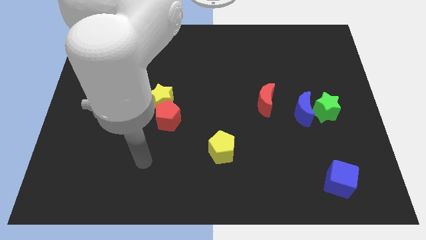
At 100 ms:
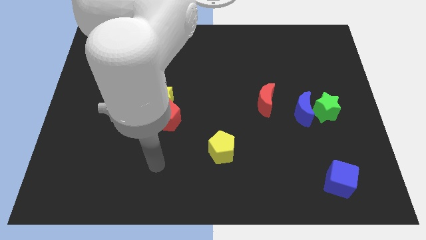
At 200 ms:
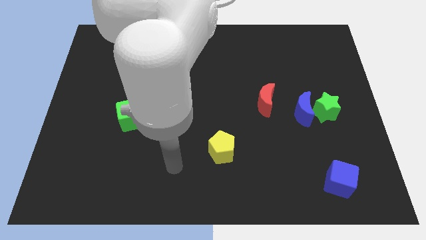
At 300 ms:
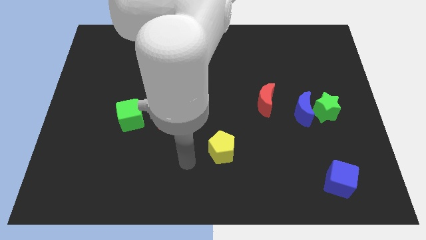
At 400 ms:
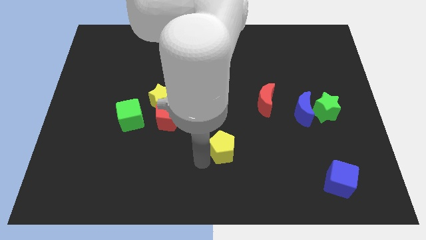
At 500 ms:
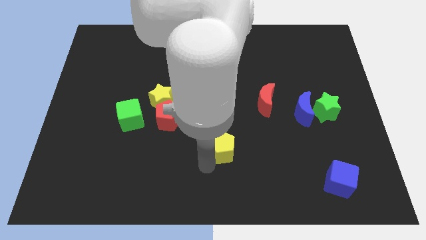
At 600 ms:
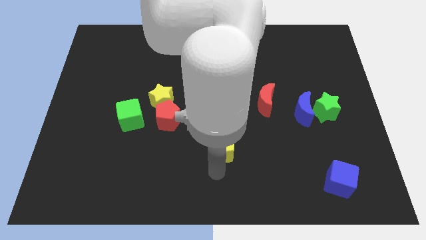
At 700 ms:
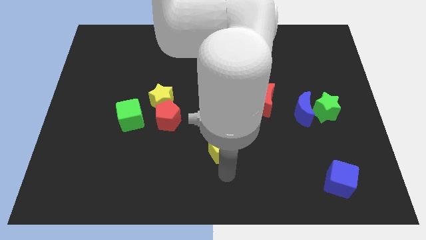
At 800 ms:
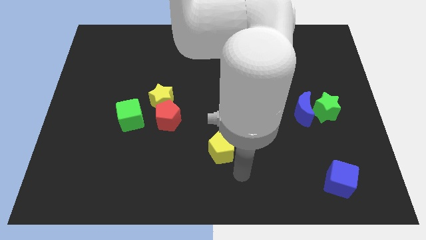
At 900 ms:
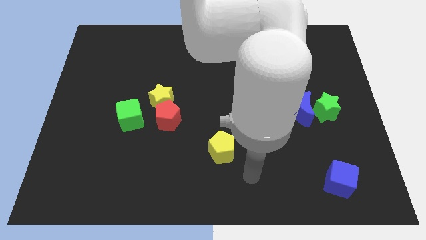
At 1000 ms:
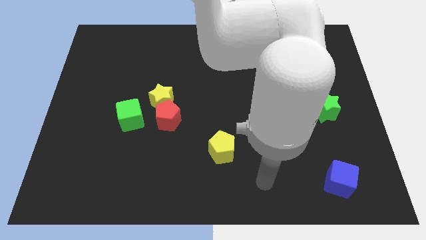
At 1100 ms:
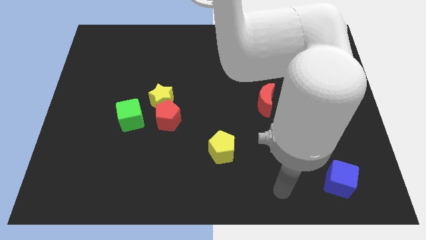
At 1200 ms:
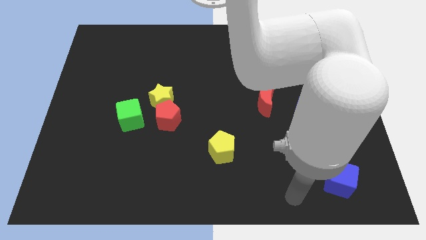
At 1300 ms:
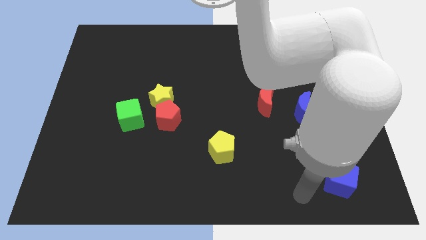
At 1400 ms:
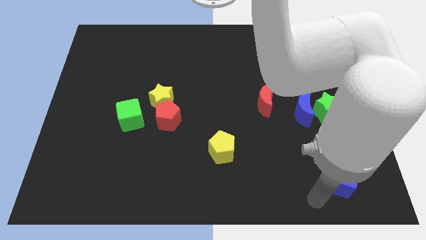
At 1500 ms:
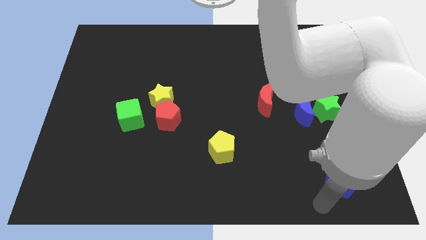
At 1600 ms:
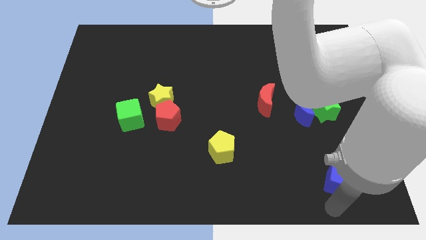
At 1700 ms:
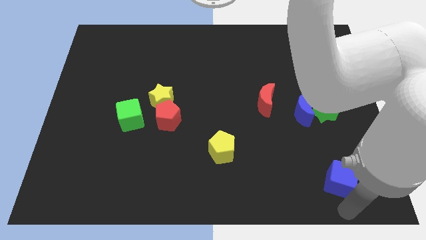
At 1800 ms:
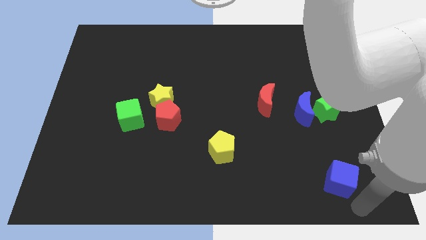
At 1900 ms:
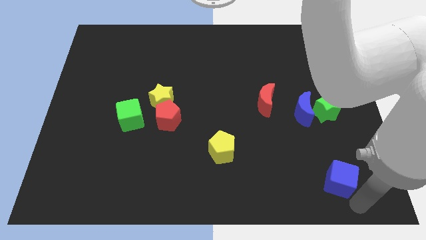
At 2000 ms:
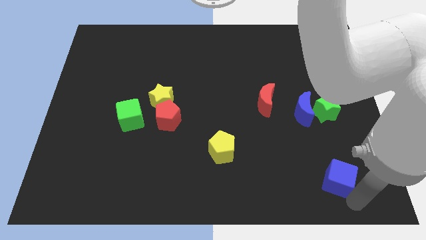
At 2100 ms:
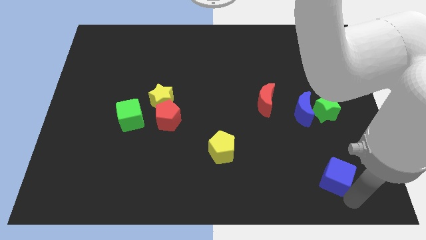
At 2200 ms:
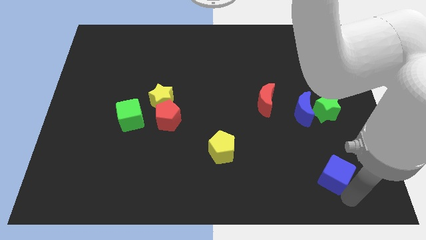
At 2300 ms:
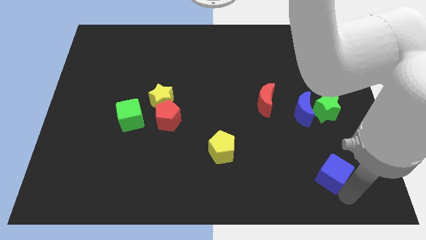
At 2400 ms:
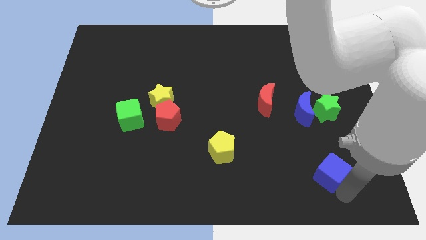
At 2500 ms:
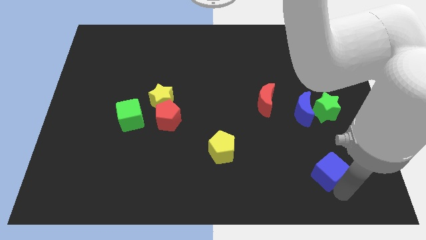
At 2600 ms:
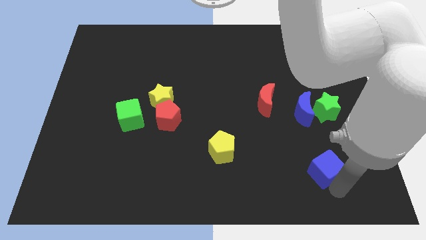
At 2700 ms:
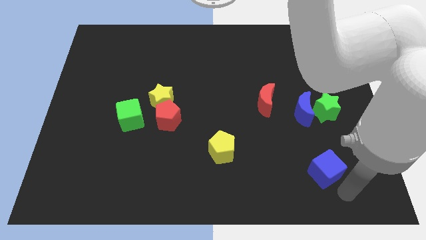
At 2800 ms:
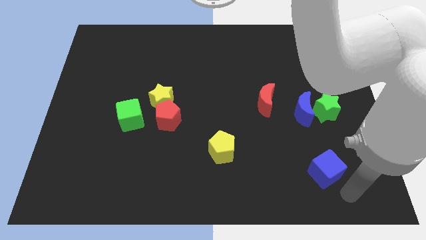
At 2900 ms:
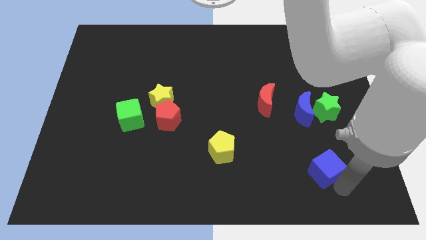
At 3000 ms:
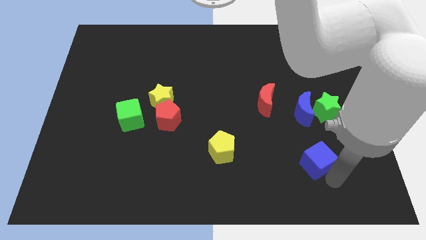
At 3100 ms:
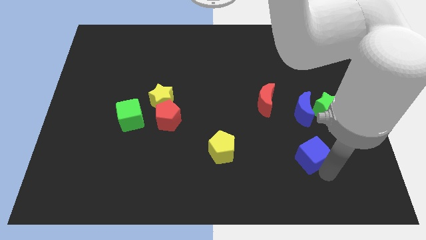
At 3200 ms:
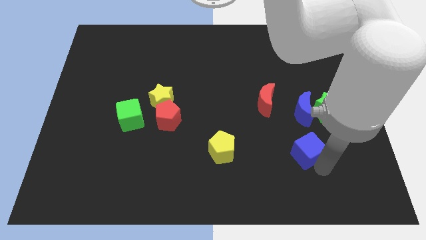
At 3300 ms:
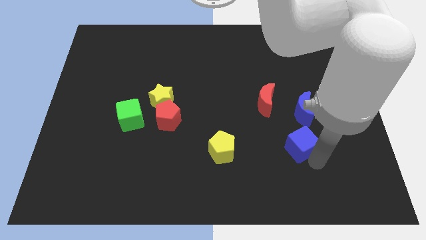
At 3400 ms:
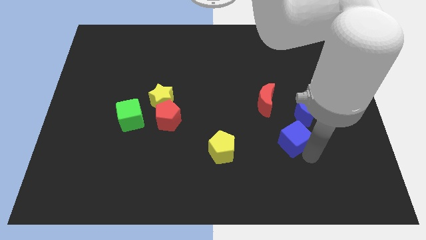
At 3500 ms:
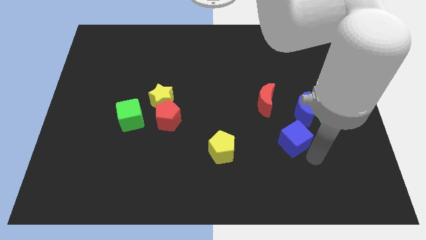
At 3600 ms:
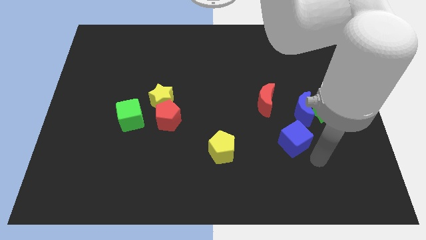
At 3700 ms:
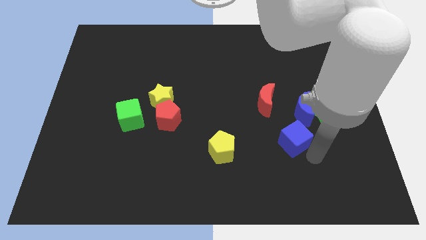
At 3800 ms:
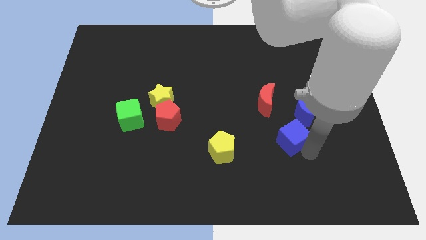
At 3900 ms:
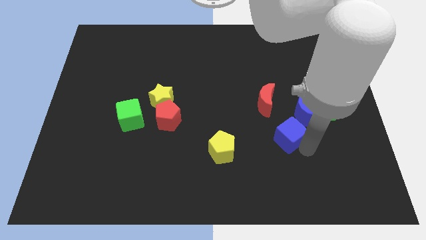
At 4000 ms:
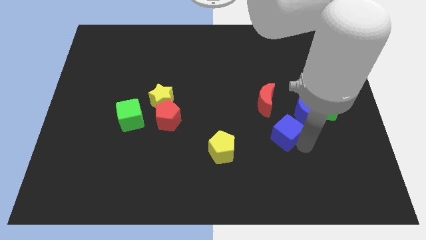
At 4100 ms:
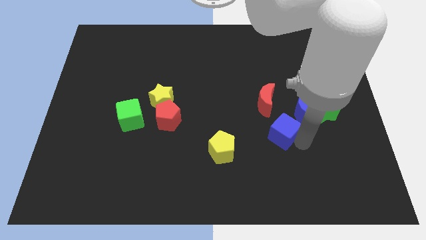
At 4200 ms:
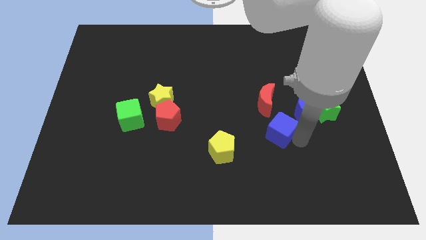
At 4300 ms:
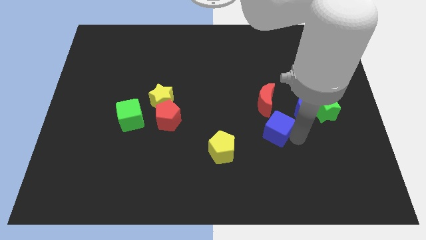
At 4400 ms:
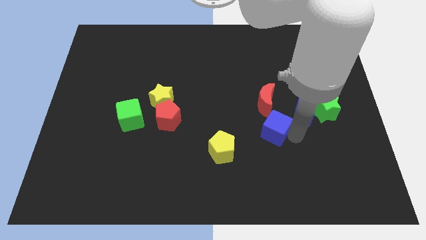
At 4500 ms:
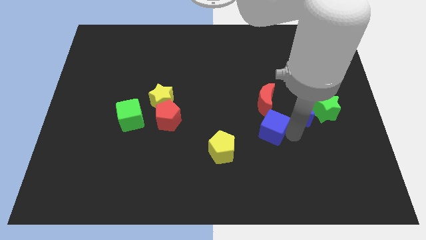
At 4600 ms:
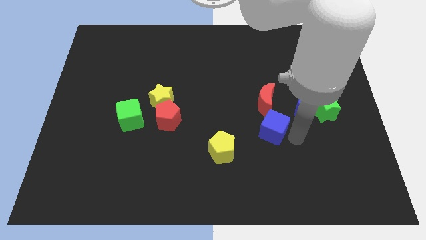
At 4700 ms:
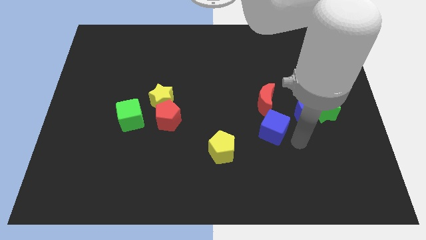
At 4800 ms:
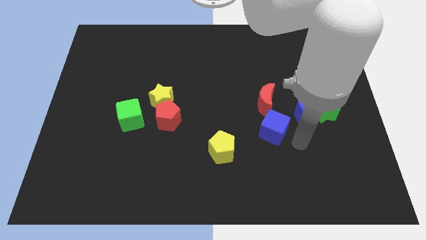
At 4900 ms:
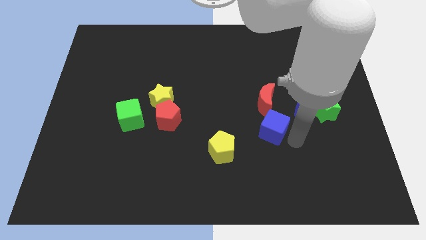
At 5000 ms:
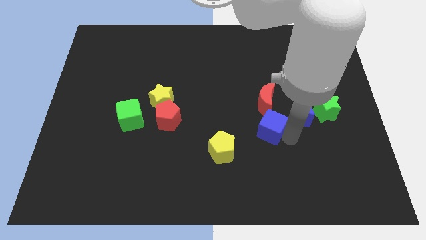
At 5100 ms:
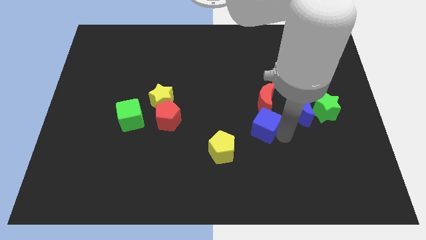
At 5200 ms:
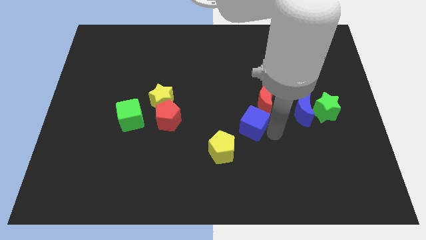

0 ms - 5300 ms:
slide the blue cube up and to the left diagonally

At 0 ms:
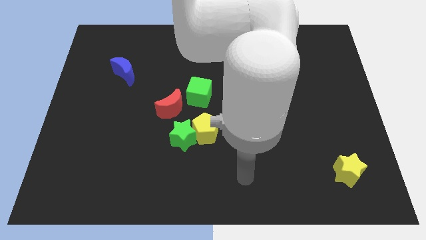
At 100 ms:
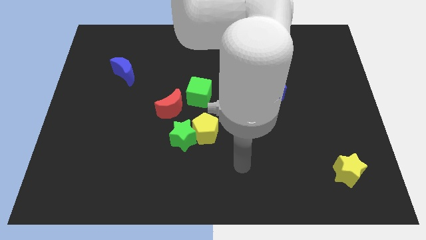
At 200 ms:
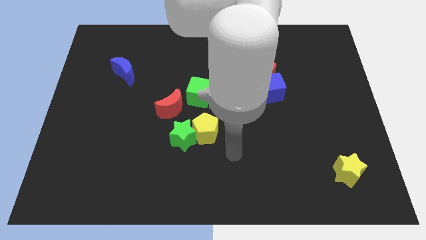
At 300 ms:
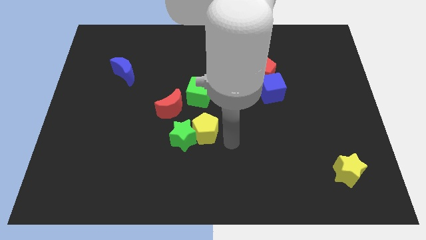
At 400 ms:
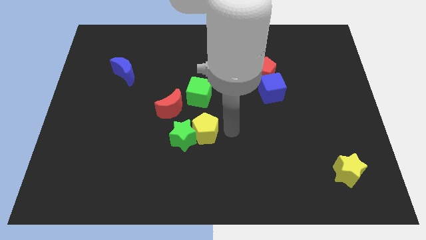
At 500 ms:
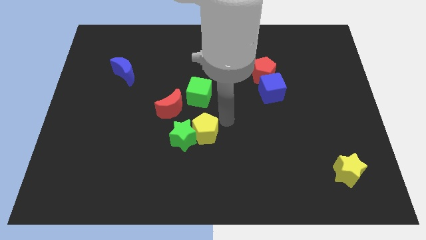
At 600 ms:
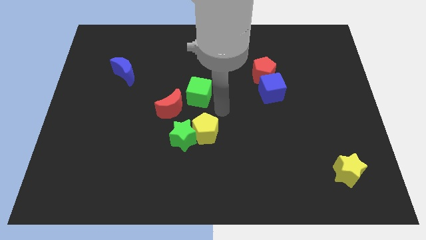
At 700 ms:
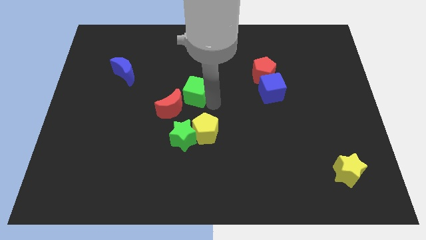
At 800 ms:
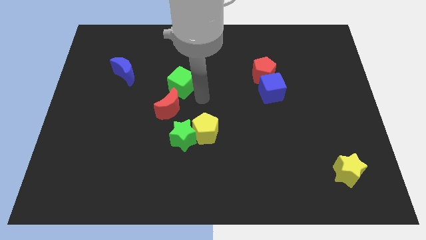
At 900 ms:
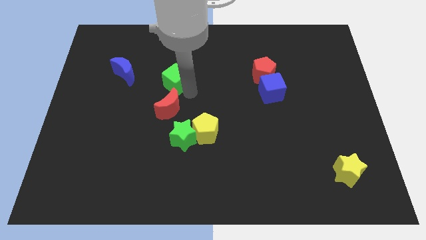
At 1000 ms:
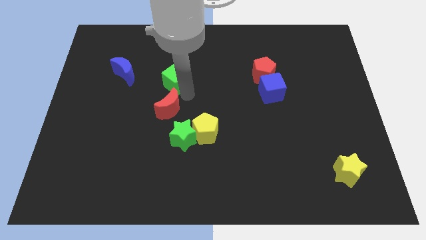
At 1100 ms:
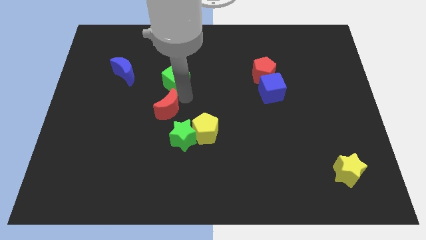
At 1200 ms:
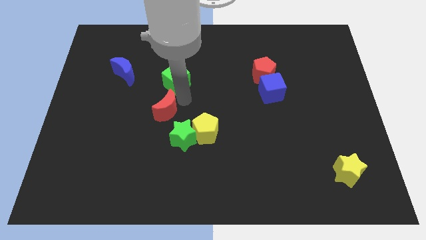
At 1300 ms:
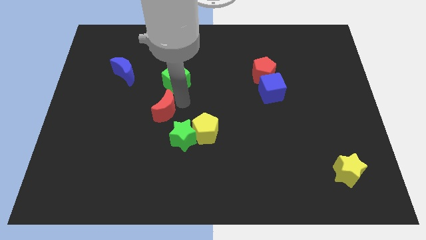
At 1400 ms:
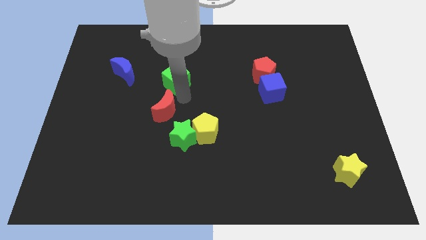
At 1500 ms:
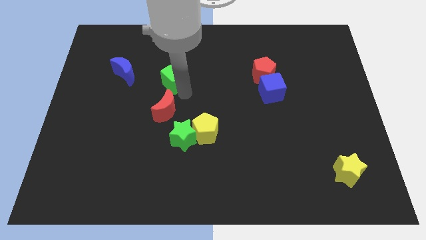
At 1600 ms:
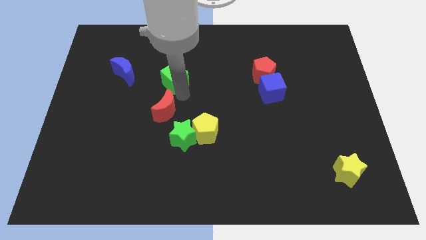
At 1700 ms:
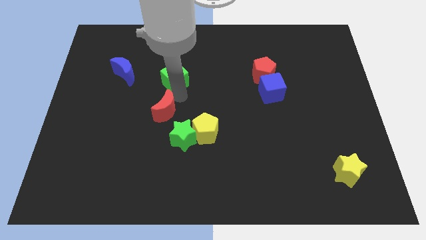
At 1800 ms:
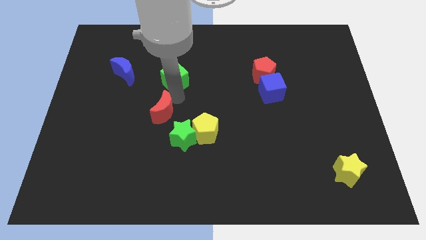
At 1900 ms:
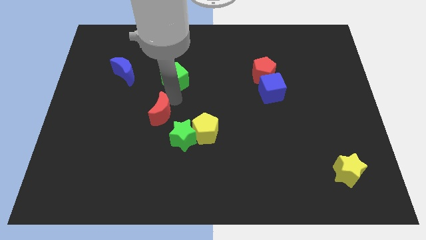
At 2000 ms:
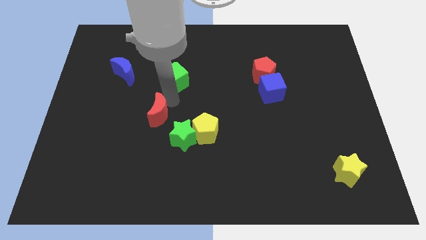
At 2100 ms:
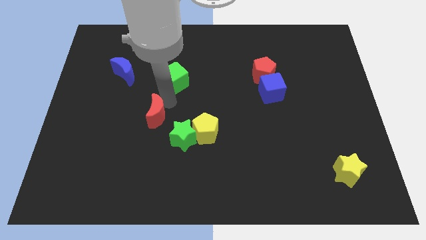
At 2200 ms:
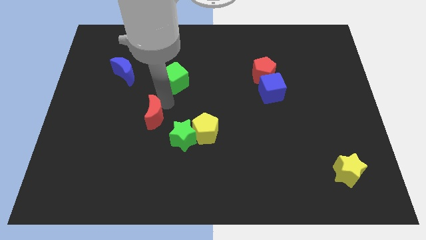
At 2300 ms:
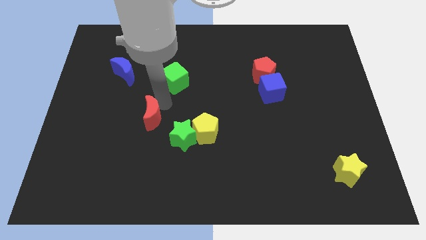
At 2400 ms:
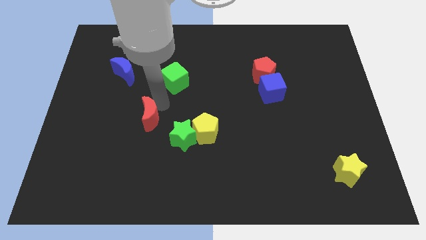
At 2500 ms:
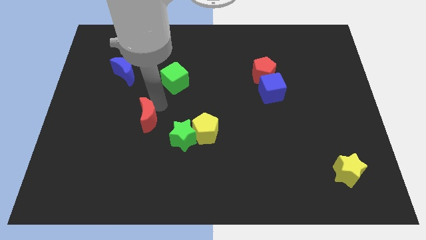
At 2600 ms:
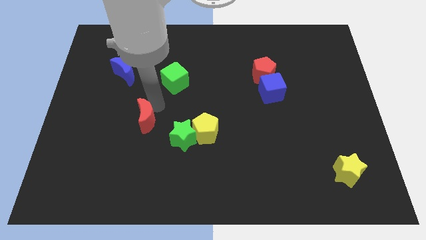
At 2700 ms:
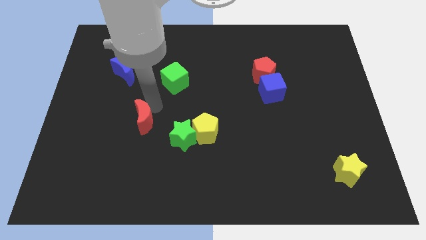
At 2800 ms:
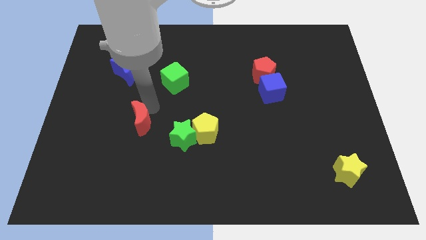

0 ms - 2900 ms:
slightly move the red moon down and to the left

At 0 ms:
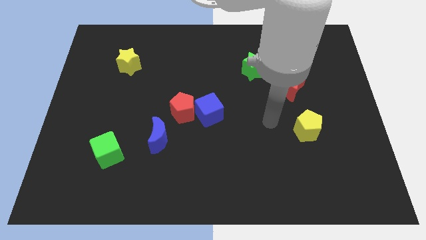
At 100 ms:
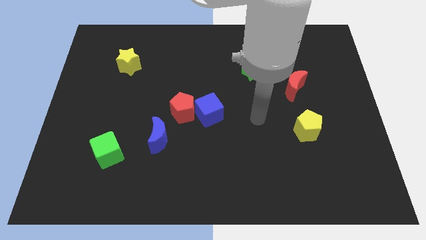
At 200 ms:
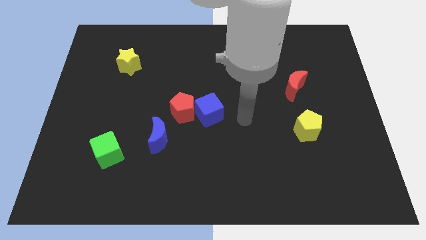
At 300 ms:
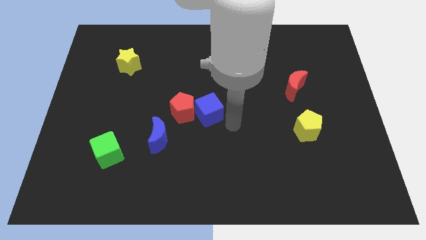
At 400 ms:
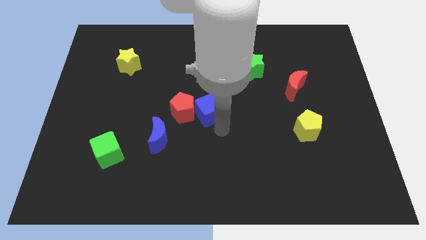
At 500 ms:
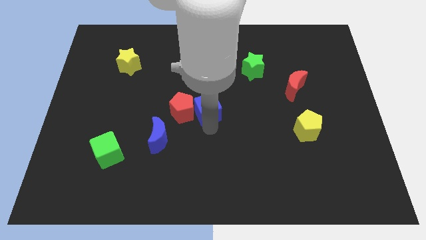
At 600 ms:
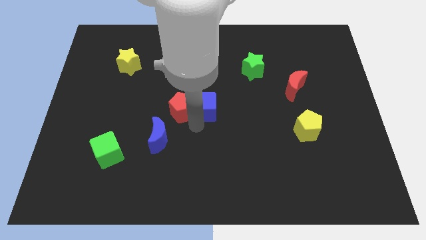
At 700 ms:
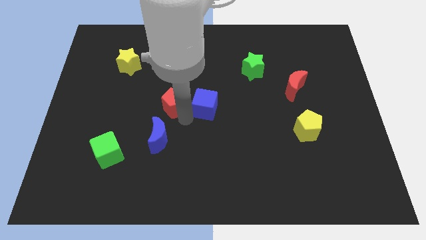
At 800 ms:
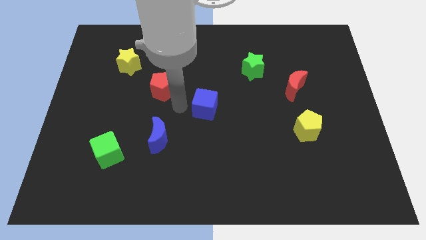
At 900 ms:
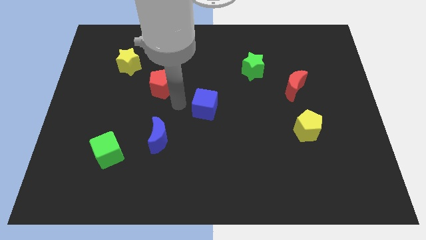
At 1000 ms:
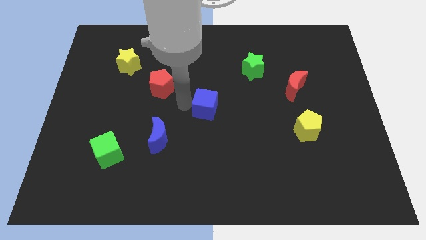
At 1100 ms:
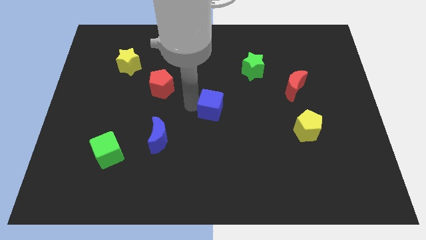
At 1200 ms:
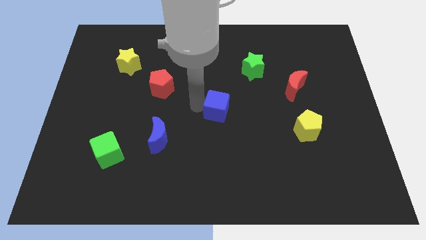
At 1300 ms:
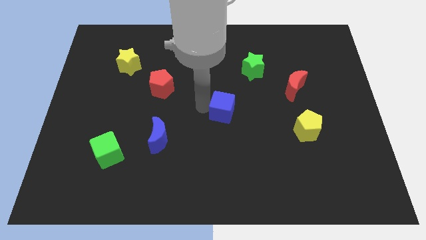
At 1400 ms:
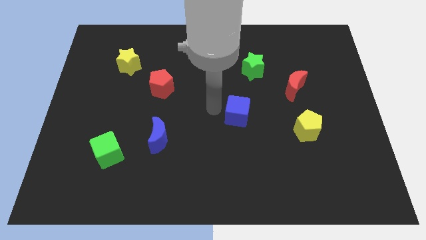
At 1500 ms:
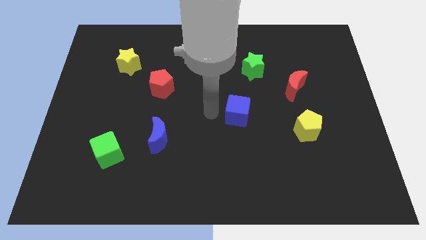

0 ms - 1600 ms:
move the blue cube to the right a bit
